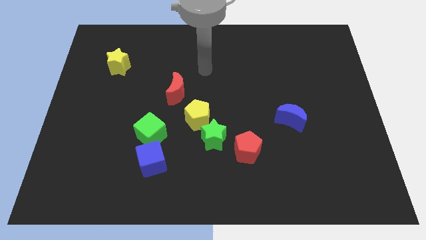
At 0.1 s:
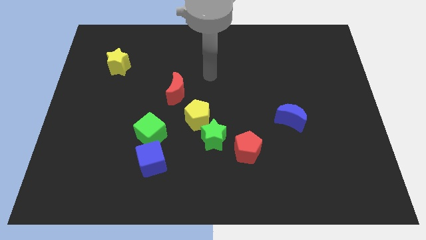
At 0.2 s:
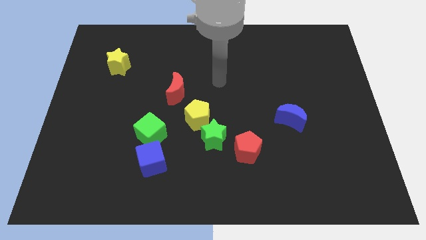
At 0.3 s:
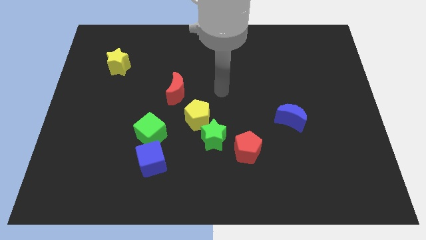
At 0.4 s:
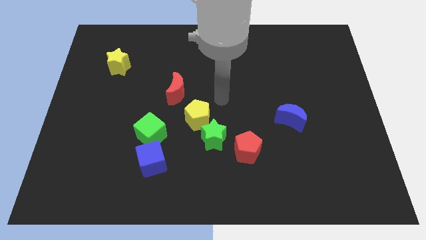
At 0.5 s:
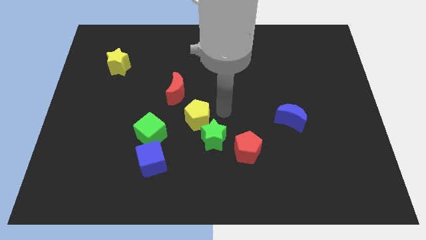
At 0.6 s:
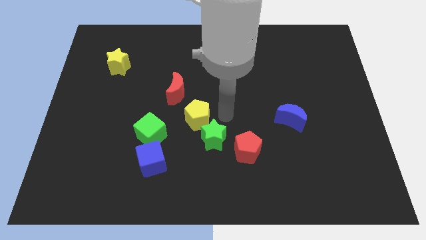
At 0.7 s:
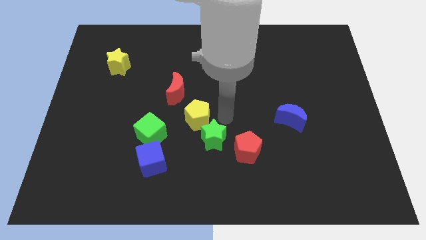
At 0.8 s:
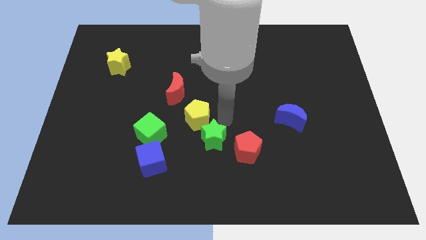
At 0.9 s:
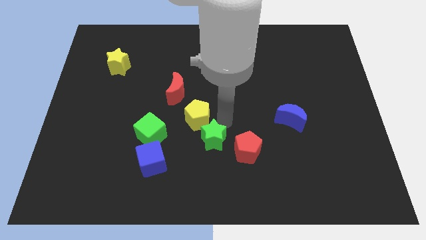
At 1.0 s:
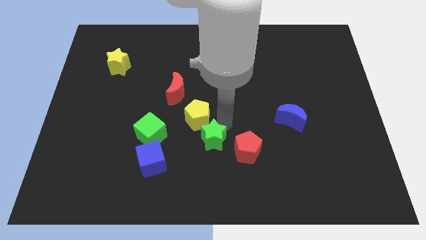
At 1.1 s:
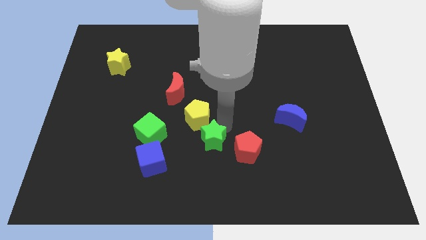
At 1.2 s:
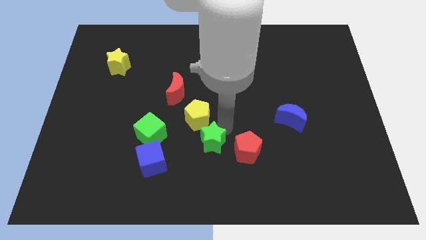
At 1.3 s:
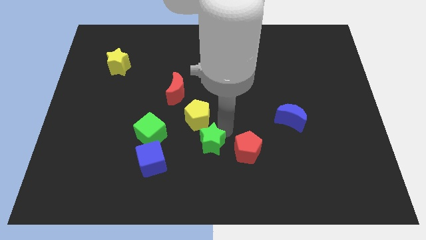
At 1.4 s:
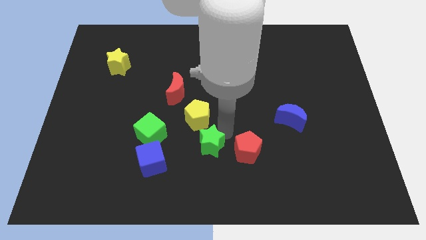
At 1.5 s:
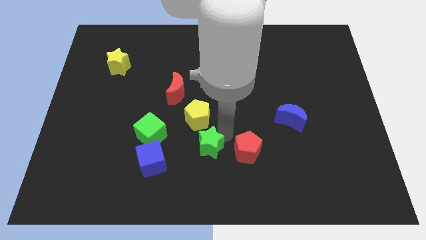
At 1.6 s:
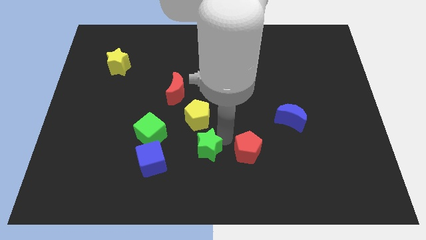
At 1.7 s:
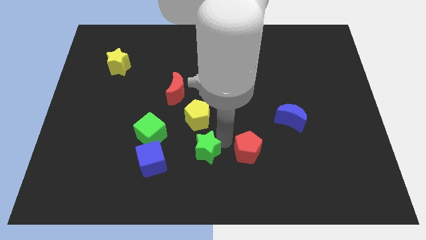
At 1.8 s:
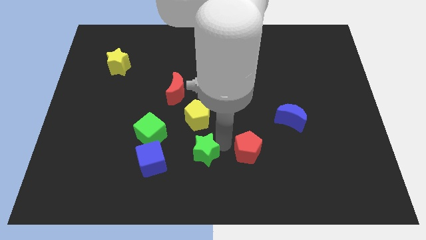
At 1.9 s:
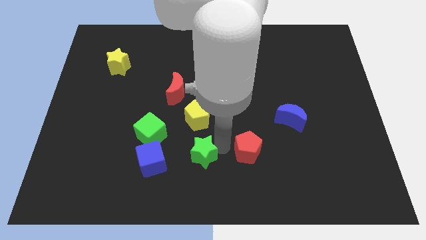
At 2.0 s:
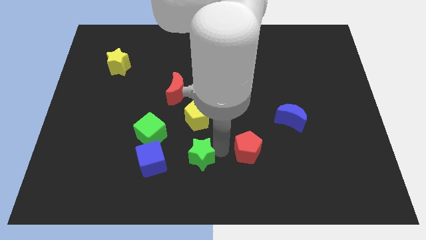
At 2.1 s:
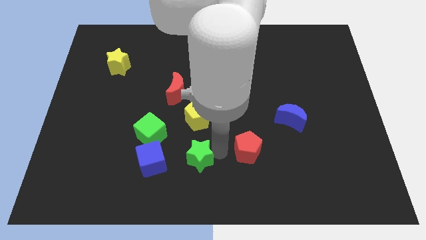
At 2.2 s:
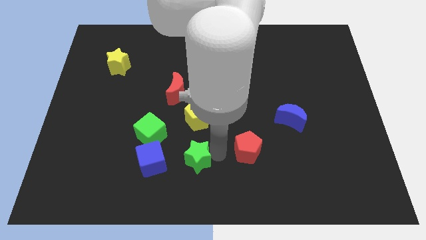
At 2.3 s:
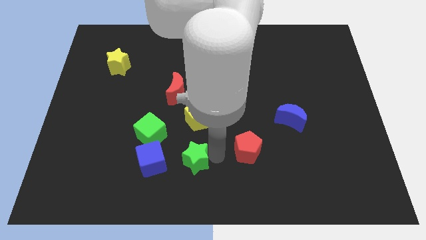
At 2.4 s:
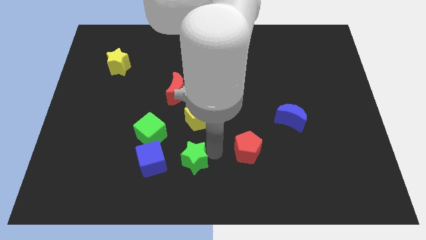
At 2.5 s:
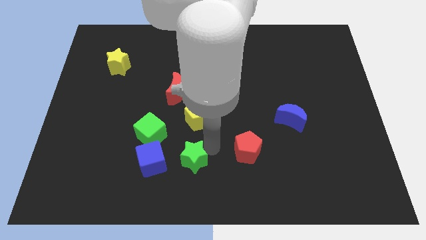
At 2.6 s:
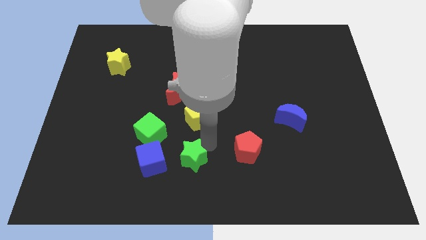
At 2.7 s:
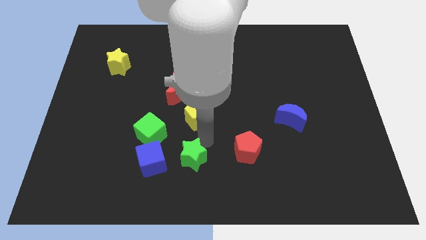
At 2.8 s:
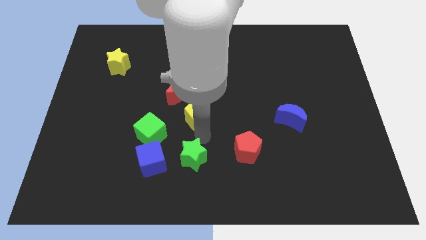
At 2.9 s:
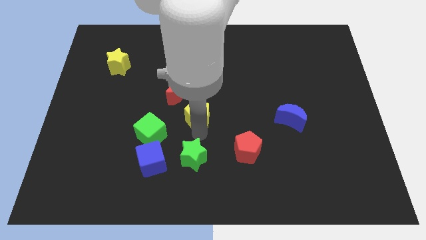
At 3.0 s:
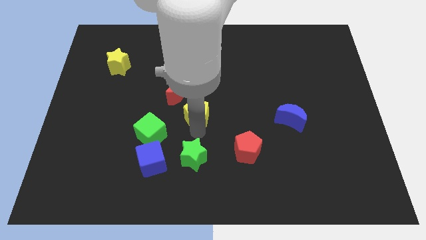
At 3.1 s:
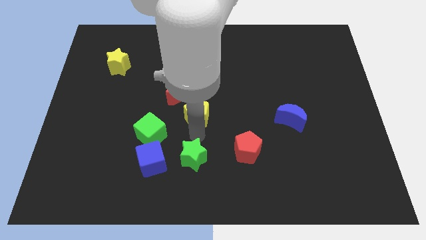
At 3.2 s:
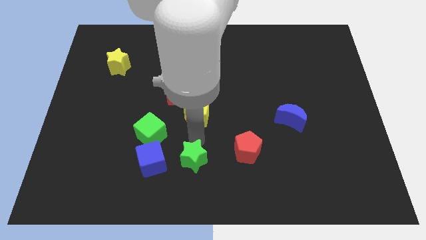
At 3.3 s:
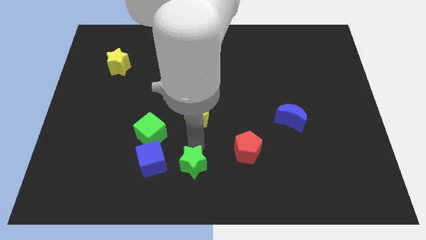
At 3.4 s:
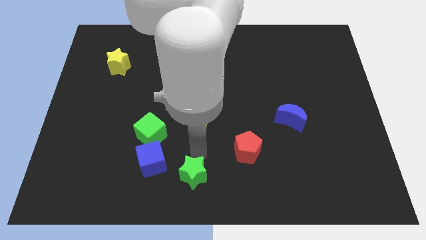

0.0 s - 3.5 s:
separate the green star from the yellow pentagon and red pentagon

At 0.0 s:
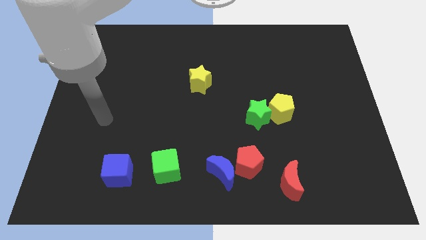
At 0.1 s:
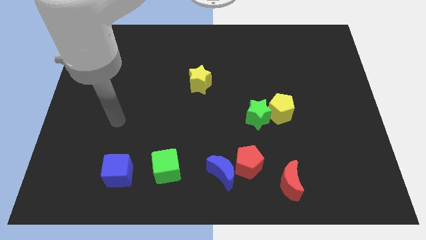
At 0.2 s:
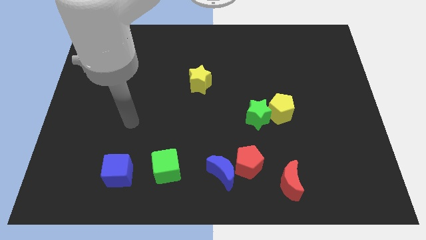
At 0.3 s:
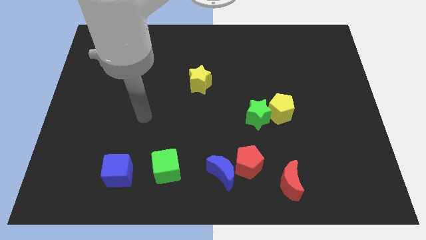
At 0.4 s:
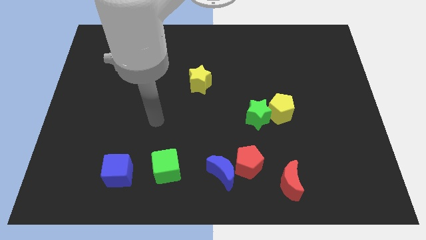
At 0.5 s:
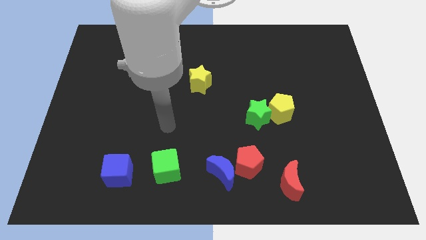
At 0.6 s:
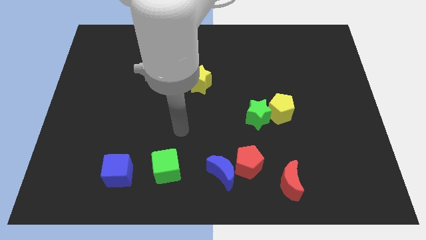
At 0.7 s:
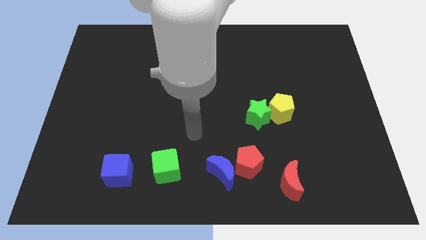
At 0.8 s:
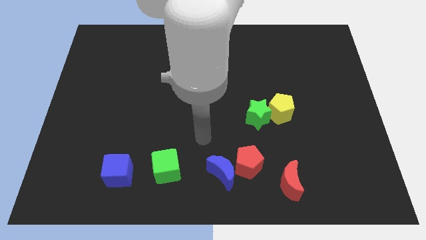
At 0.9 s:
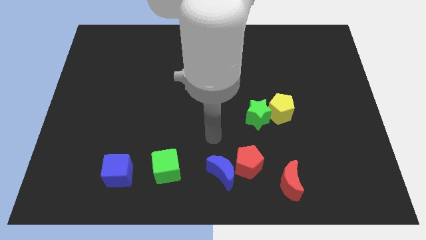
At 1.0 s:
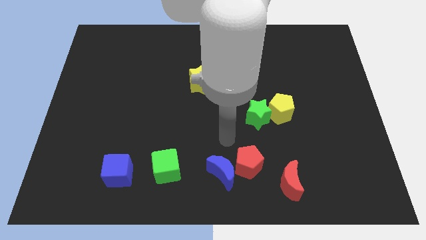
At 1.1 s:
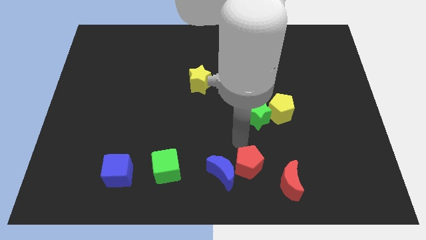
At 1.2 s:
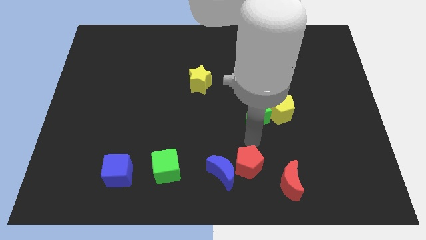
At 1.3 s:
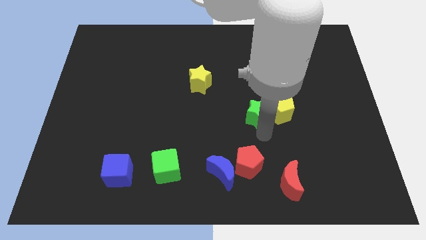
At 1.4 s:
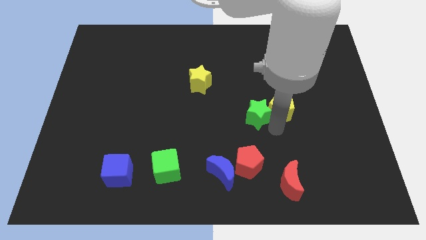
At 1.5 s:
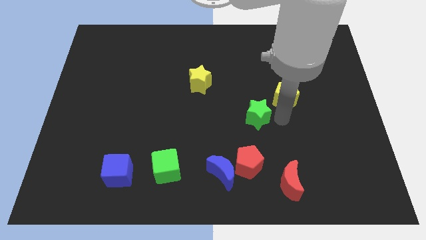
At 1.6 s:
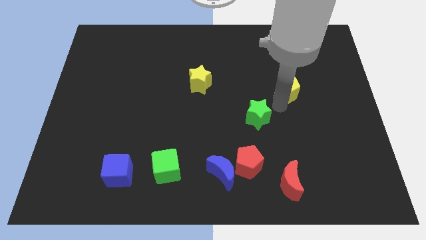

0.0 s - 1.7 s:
separate the green star from the yellow pentagon

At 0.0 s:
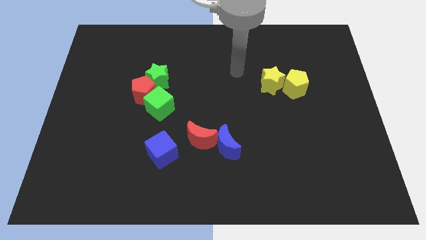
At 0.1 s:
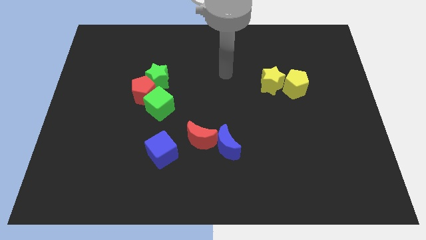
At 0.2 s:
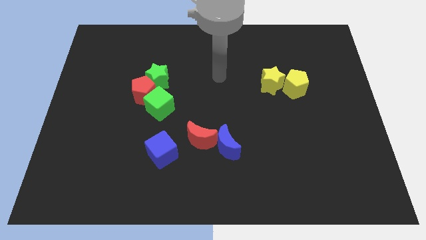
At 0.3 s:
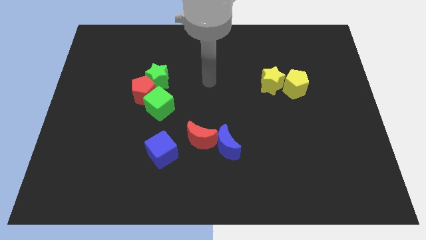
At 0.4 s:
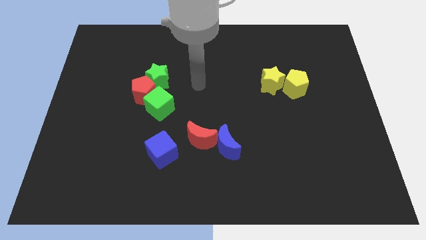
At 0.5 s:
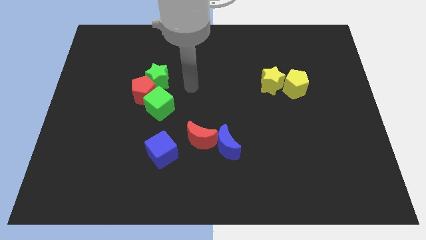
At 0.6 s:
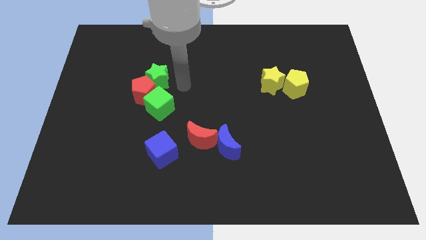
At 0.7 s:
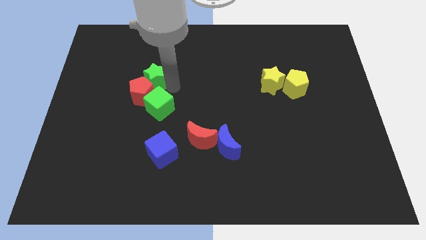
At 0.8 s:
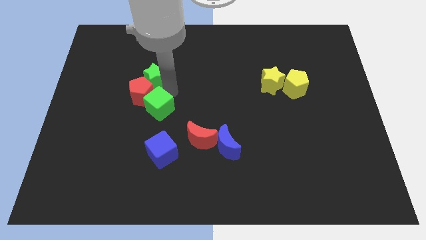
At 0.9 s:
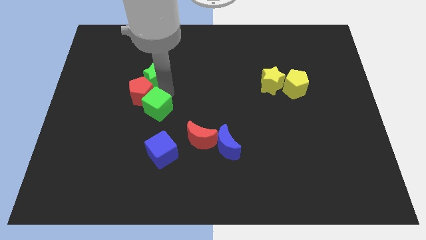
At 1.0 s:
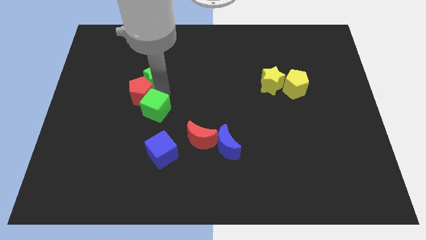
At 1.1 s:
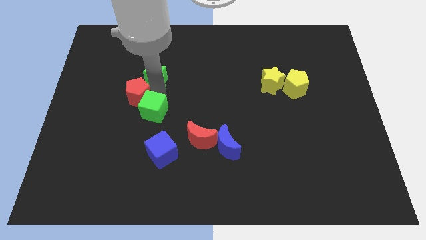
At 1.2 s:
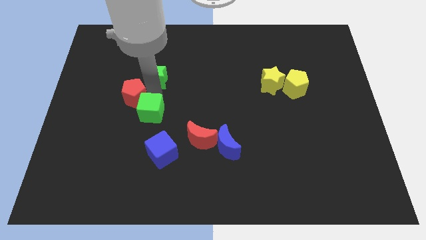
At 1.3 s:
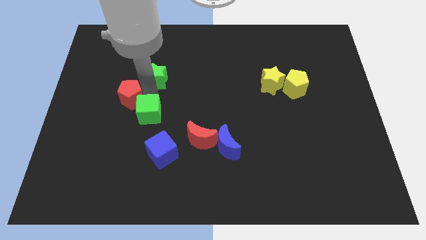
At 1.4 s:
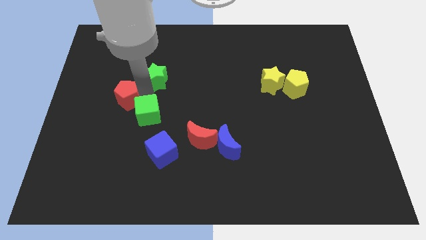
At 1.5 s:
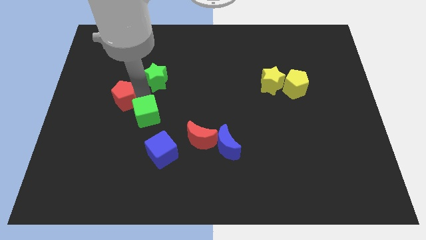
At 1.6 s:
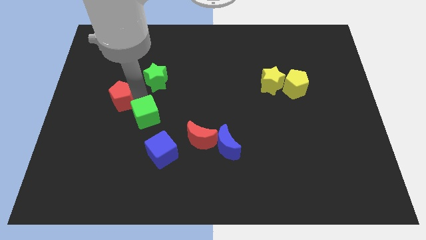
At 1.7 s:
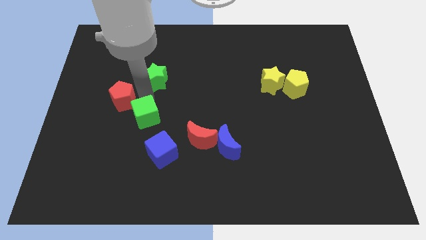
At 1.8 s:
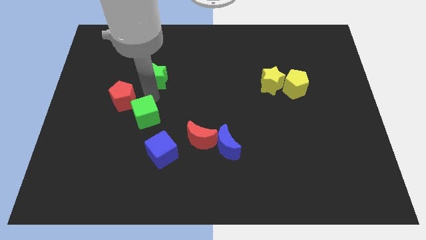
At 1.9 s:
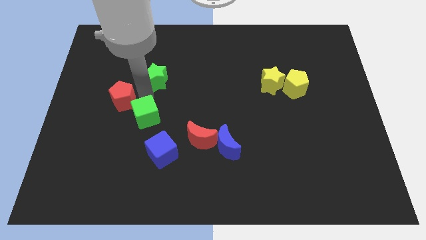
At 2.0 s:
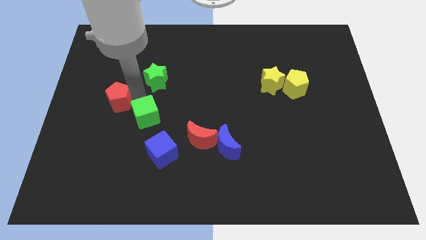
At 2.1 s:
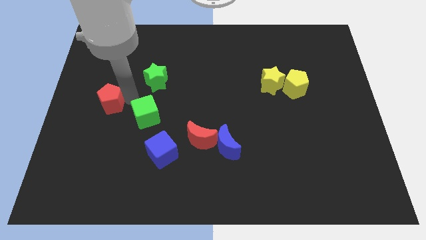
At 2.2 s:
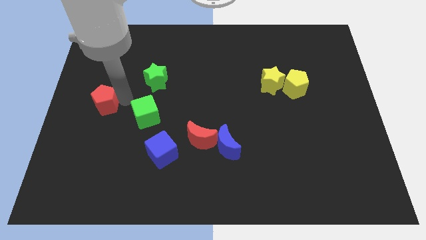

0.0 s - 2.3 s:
move the red pentagon away from the green star and green cube

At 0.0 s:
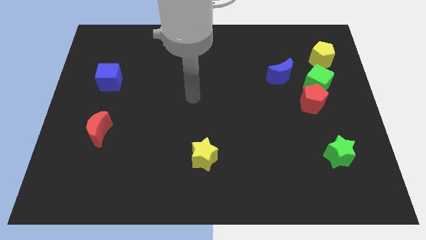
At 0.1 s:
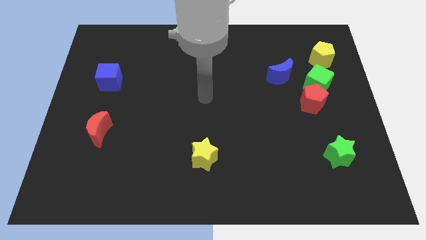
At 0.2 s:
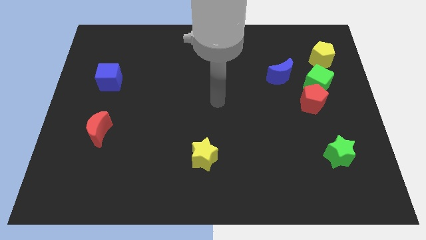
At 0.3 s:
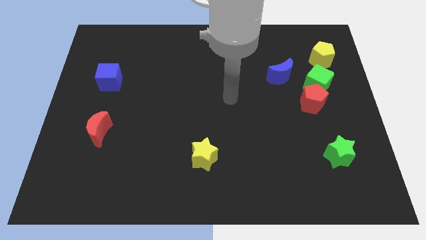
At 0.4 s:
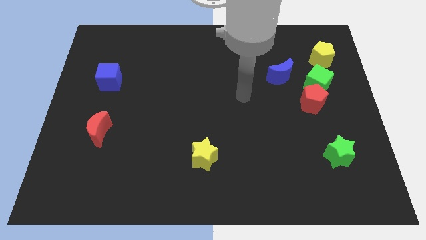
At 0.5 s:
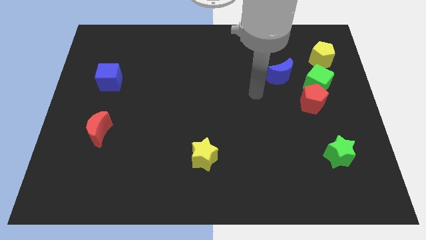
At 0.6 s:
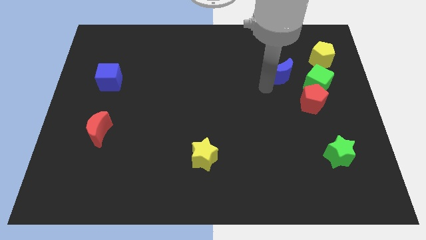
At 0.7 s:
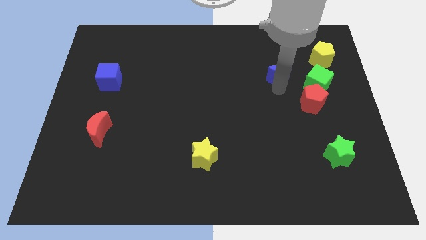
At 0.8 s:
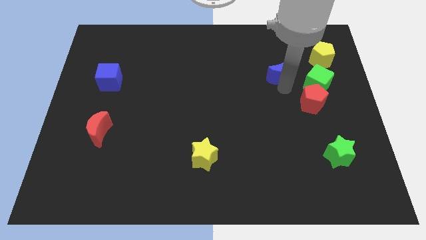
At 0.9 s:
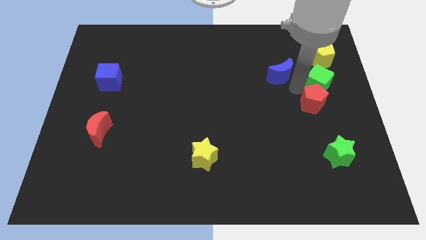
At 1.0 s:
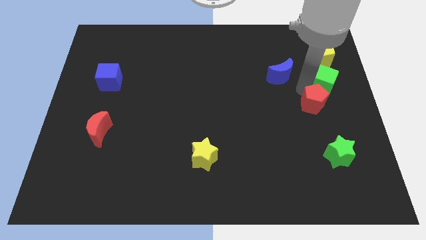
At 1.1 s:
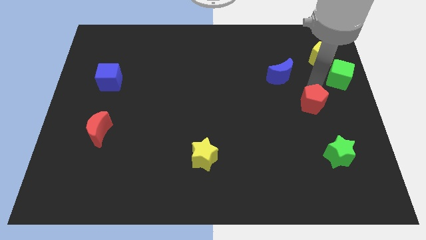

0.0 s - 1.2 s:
move the red pentagon away from the green cube

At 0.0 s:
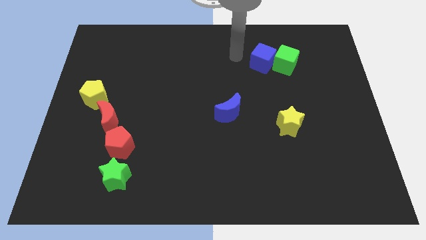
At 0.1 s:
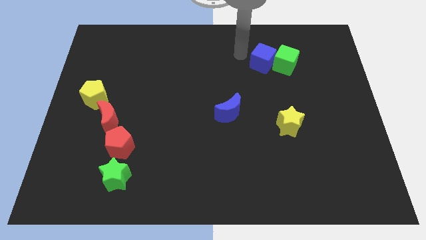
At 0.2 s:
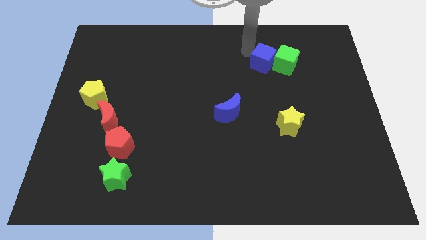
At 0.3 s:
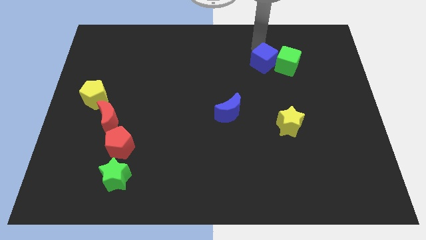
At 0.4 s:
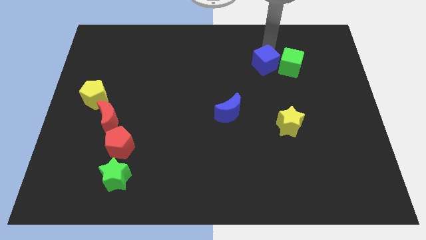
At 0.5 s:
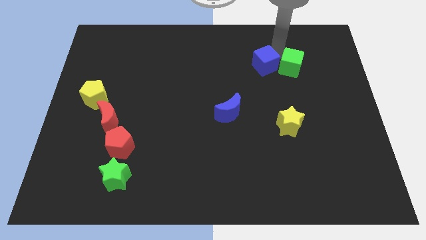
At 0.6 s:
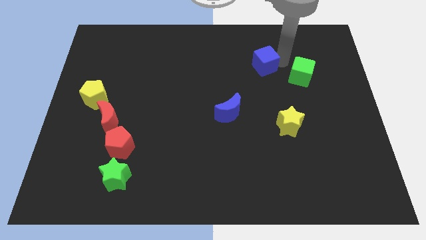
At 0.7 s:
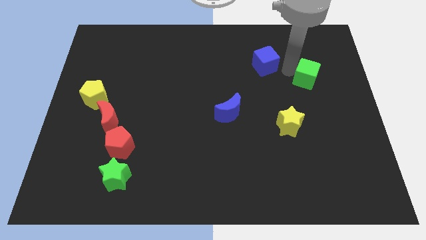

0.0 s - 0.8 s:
pull the blue cube apart from the green cube
